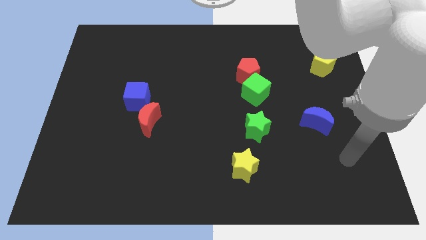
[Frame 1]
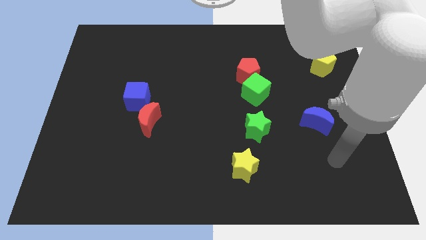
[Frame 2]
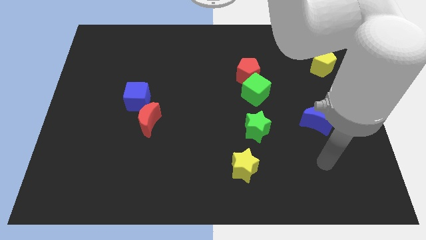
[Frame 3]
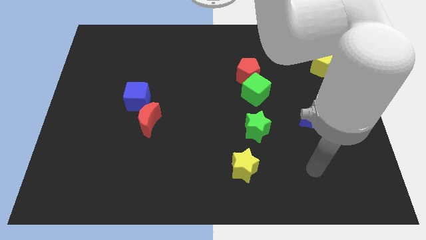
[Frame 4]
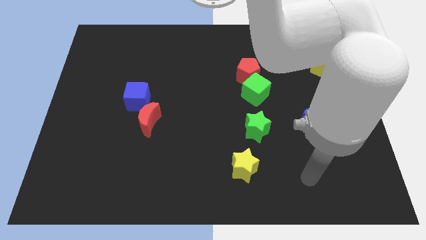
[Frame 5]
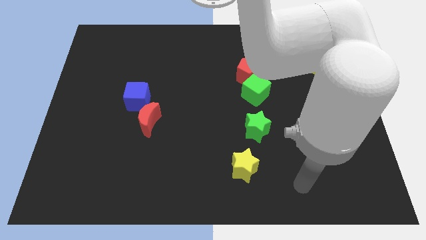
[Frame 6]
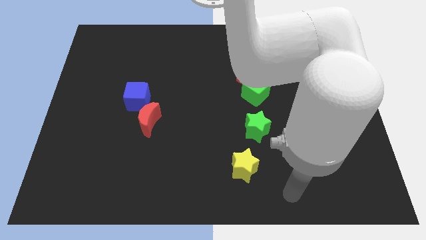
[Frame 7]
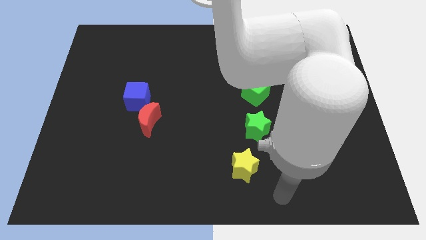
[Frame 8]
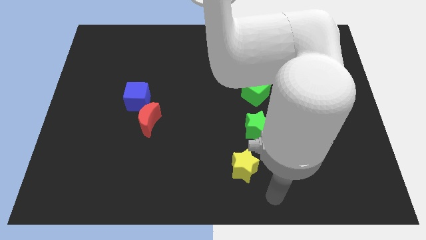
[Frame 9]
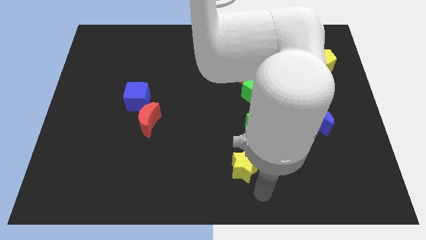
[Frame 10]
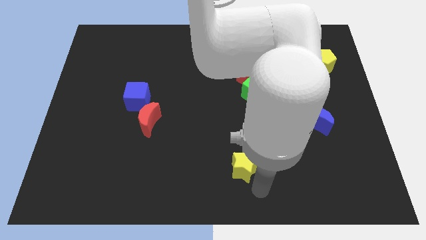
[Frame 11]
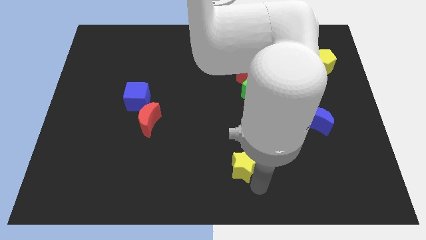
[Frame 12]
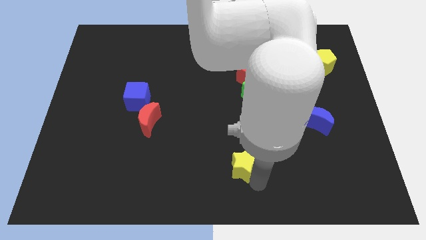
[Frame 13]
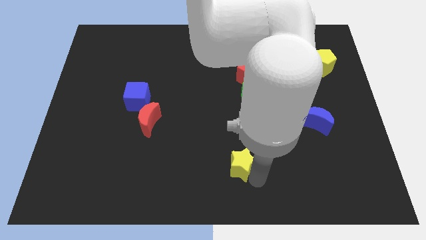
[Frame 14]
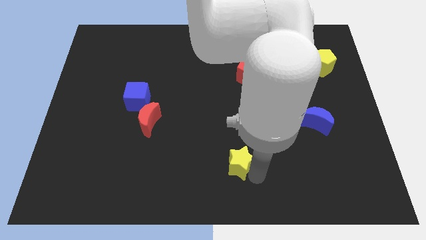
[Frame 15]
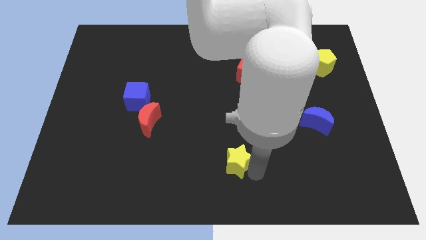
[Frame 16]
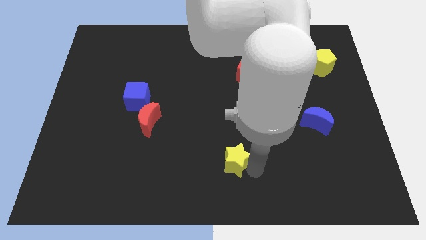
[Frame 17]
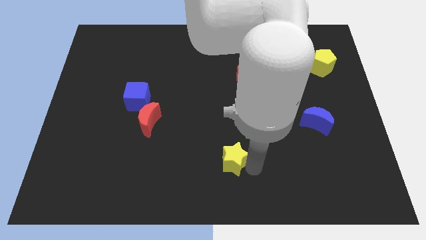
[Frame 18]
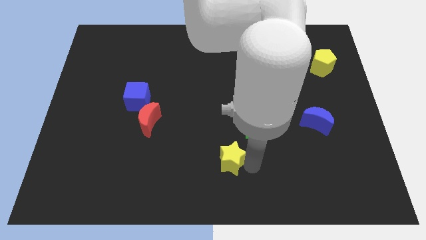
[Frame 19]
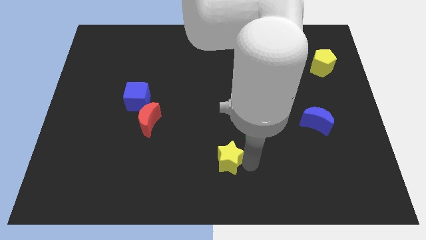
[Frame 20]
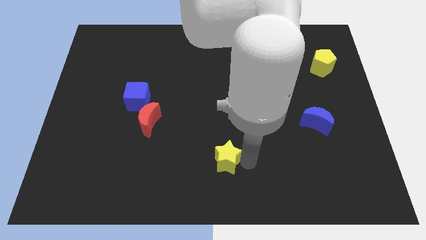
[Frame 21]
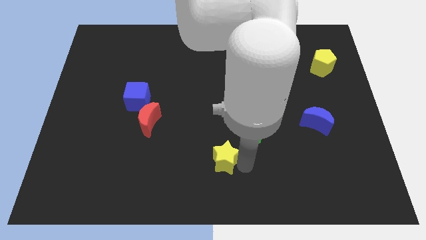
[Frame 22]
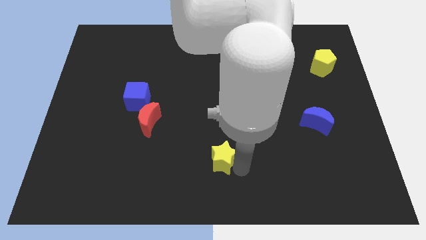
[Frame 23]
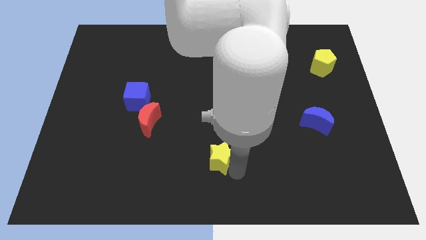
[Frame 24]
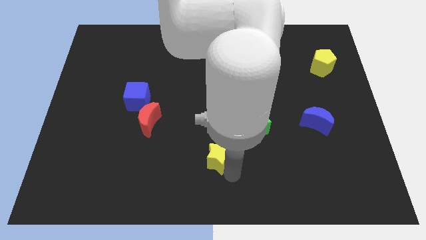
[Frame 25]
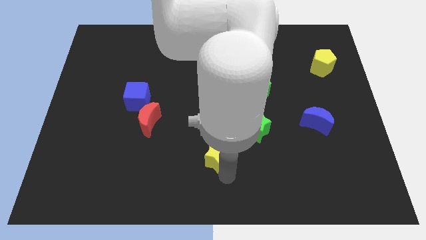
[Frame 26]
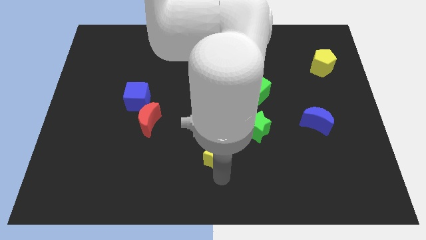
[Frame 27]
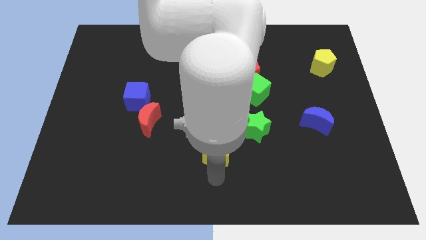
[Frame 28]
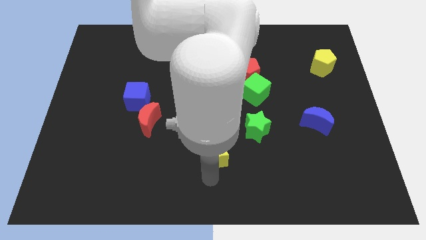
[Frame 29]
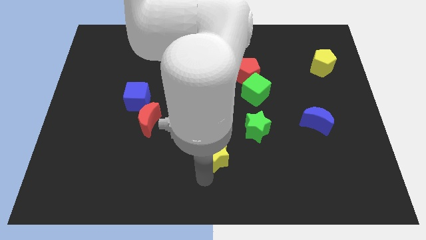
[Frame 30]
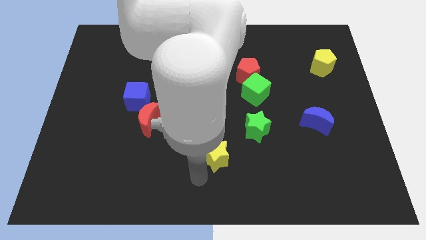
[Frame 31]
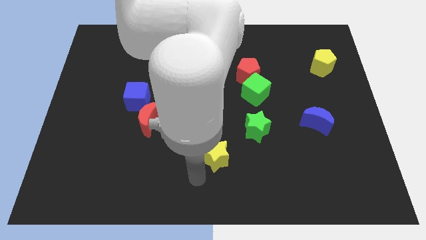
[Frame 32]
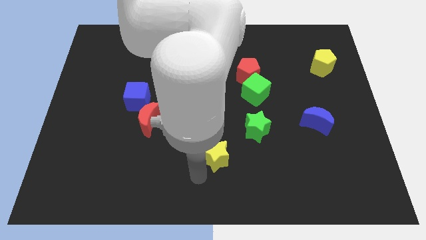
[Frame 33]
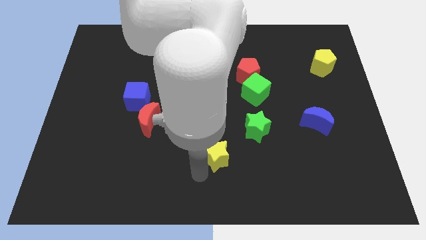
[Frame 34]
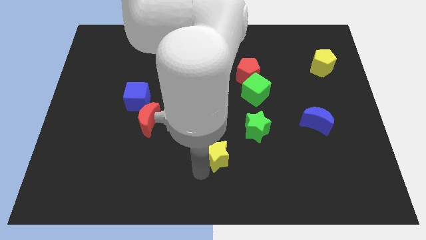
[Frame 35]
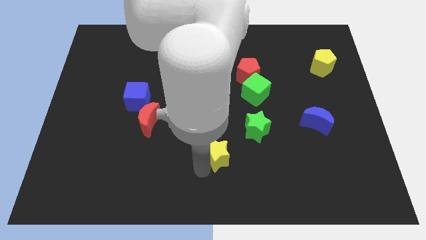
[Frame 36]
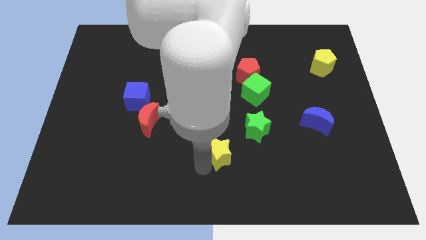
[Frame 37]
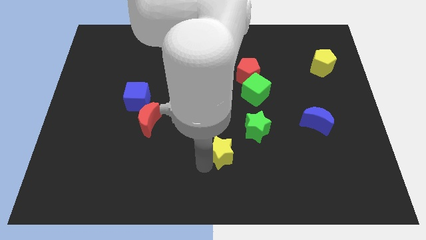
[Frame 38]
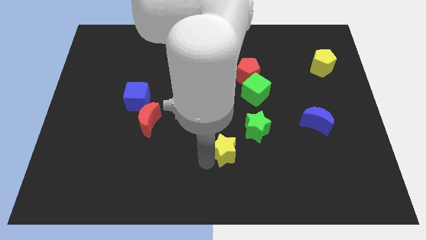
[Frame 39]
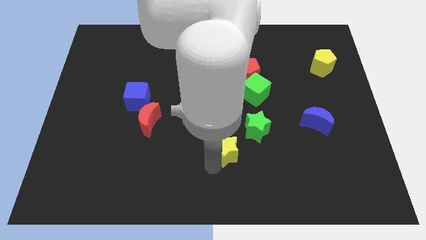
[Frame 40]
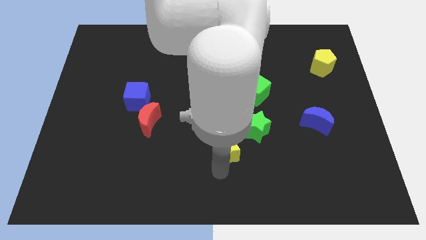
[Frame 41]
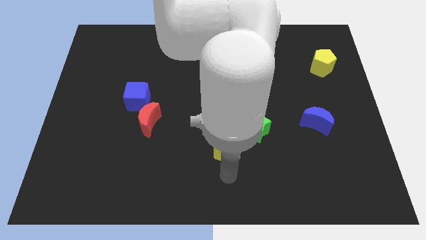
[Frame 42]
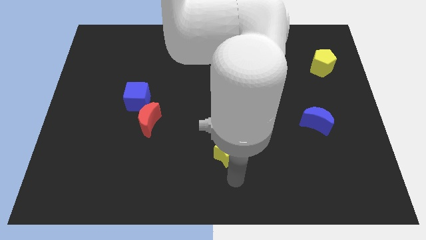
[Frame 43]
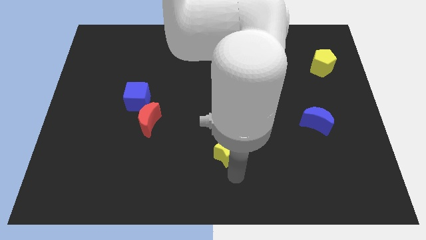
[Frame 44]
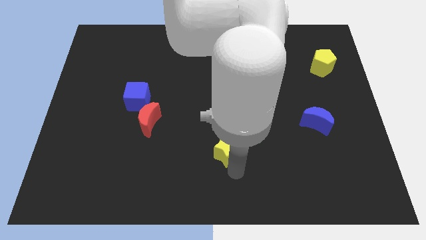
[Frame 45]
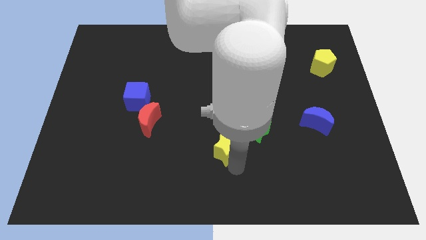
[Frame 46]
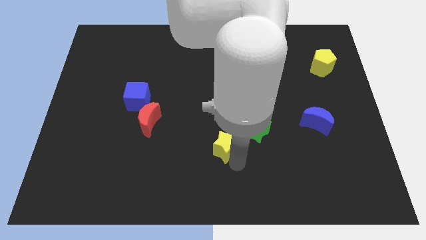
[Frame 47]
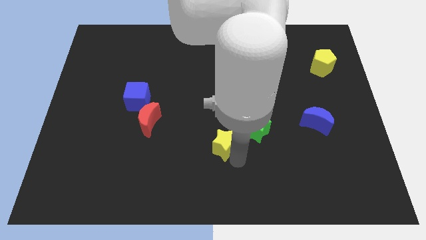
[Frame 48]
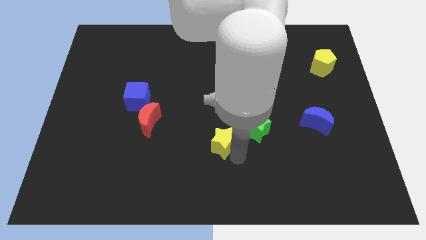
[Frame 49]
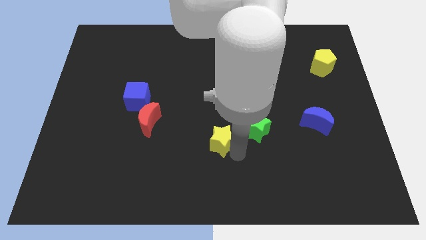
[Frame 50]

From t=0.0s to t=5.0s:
move the yellow star to the middle

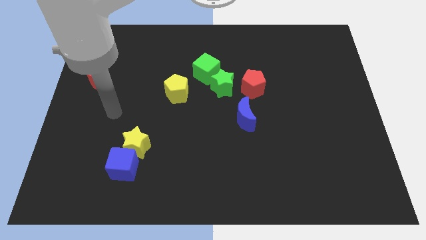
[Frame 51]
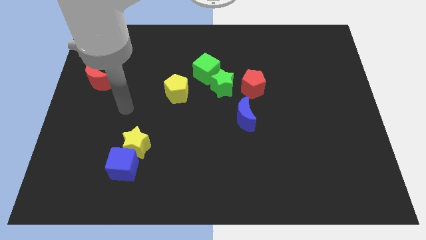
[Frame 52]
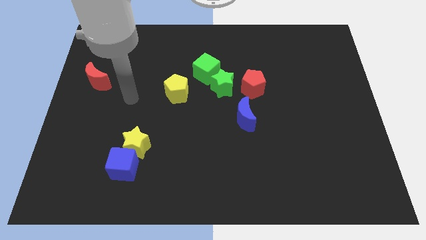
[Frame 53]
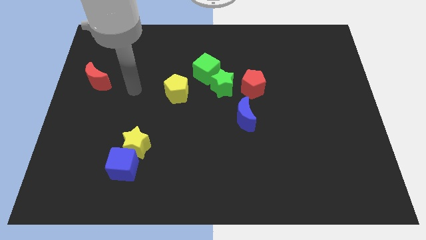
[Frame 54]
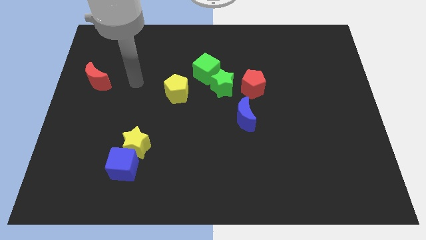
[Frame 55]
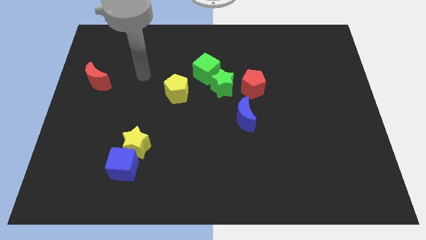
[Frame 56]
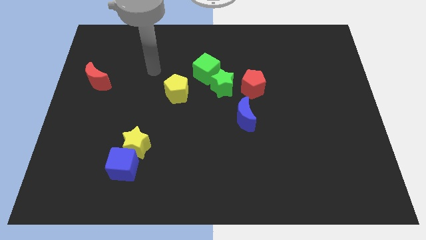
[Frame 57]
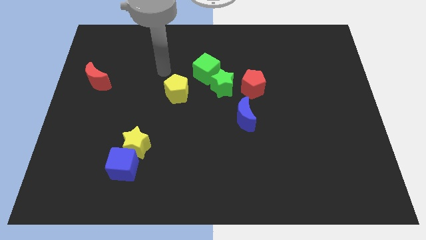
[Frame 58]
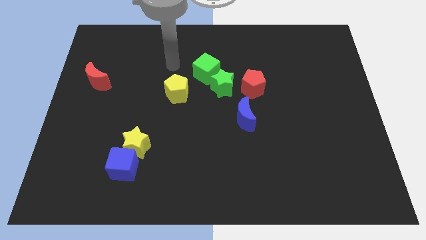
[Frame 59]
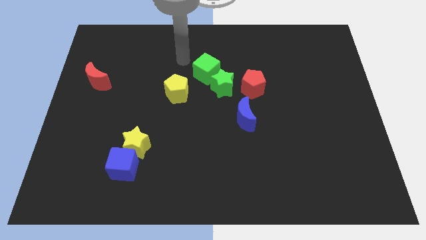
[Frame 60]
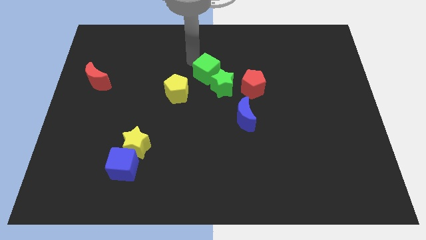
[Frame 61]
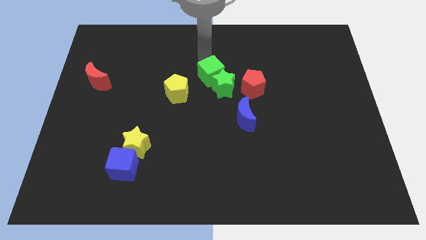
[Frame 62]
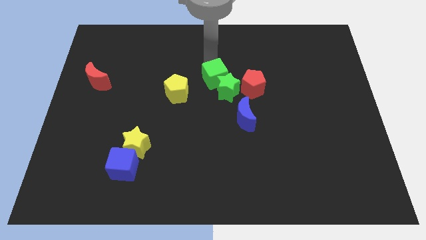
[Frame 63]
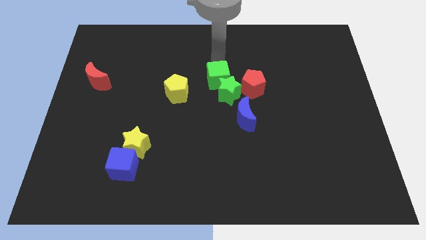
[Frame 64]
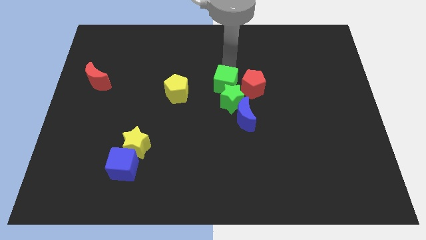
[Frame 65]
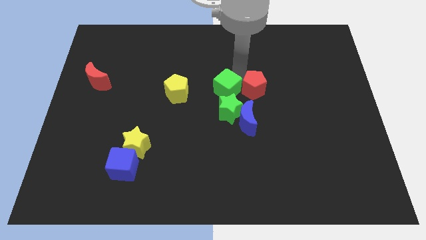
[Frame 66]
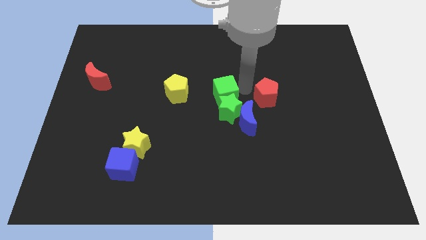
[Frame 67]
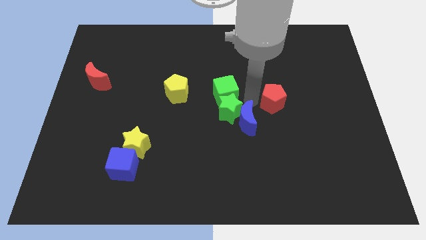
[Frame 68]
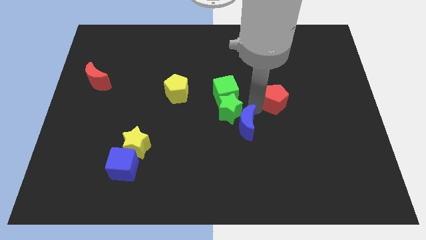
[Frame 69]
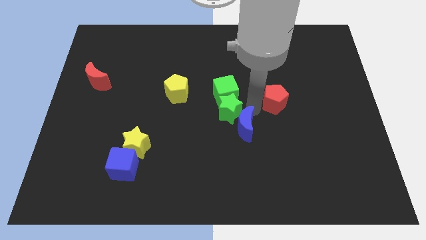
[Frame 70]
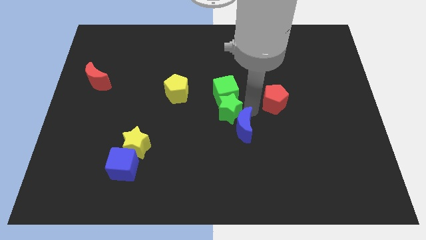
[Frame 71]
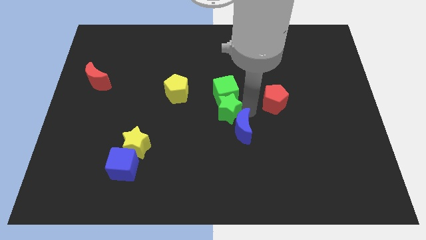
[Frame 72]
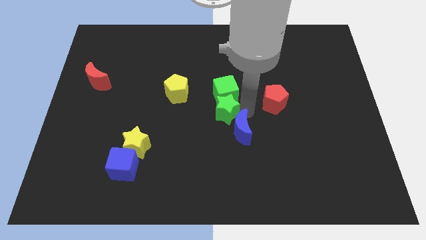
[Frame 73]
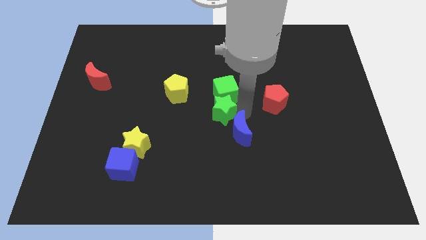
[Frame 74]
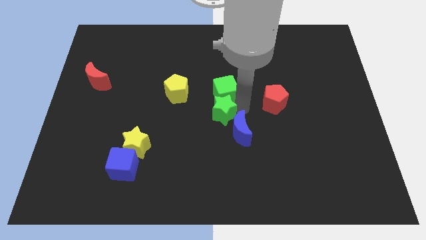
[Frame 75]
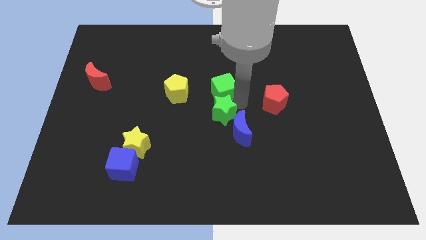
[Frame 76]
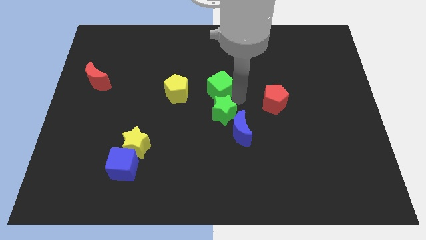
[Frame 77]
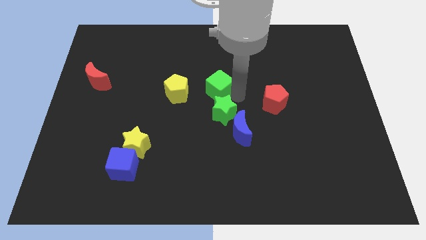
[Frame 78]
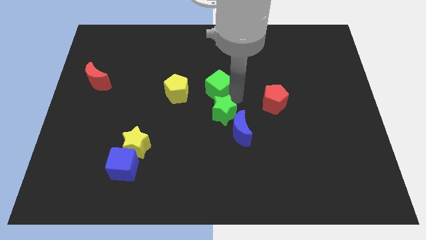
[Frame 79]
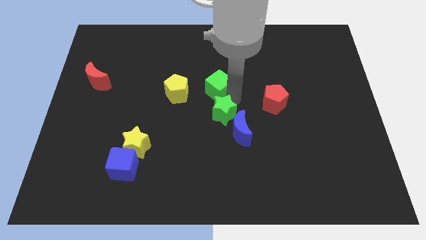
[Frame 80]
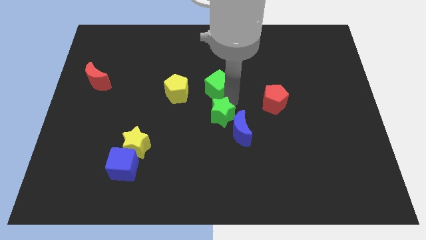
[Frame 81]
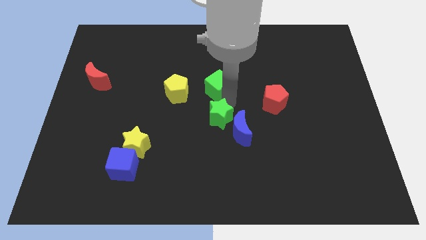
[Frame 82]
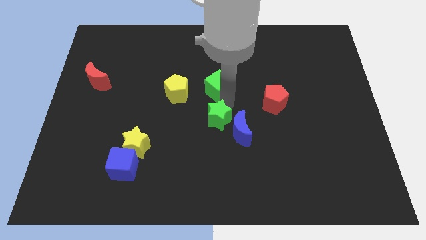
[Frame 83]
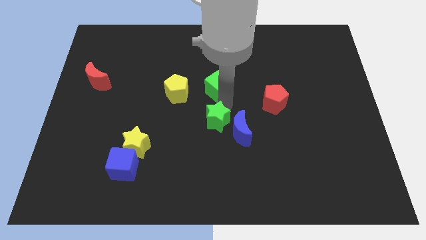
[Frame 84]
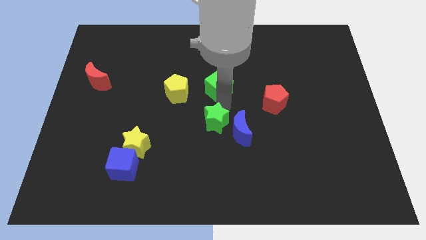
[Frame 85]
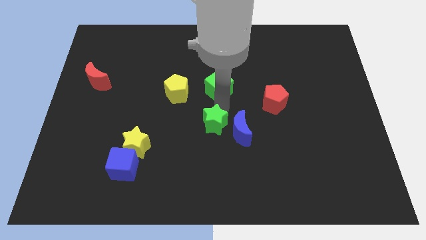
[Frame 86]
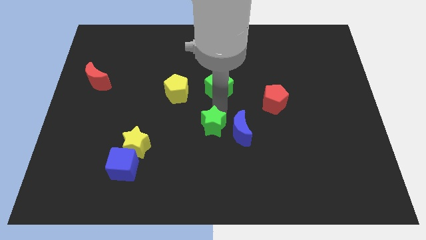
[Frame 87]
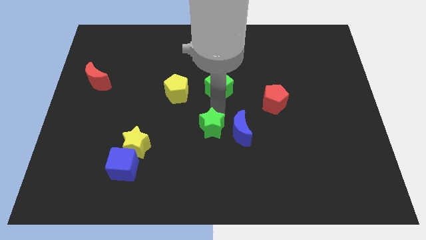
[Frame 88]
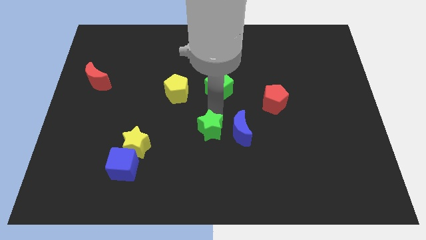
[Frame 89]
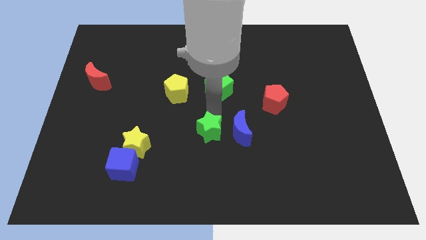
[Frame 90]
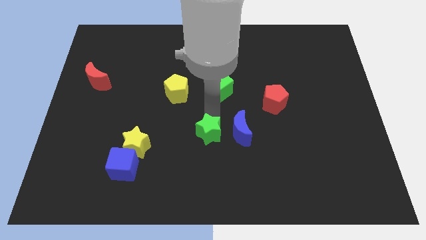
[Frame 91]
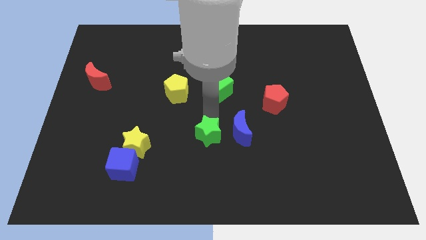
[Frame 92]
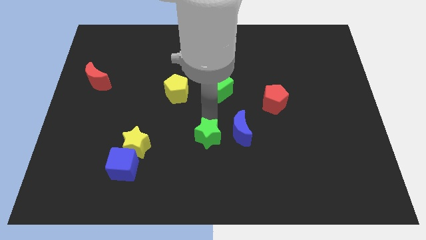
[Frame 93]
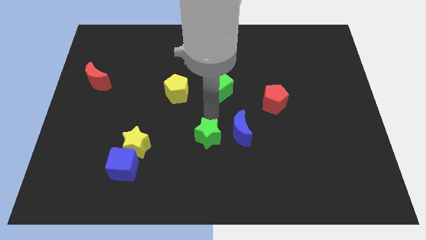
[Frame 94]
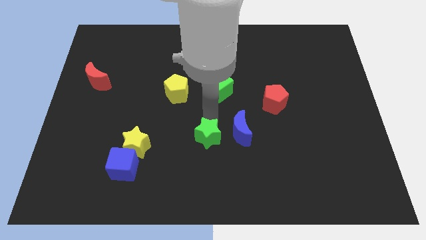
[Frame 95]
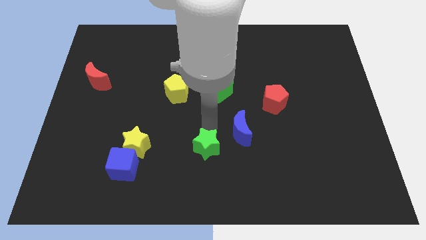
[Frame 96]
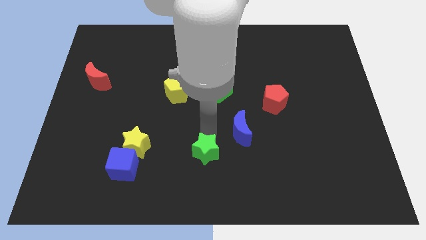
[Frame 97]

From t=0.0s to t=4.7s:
put the green star to the bottom
